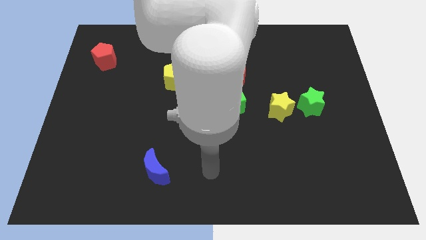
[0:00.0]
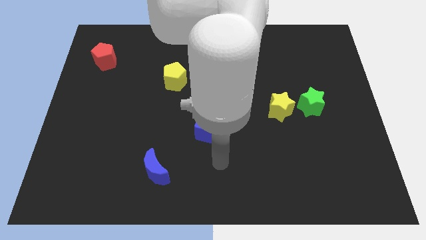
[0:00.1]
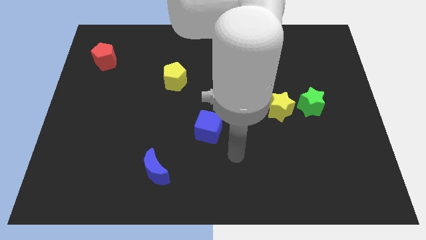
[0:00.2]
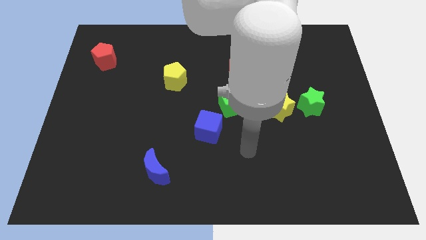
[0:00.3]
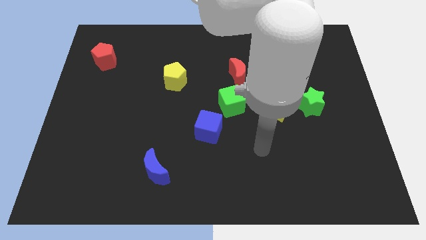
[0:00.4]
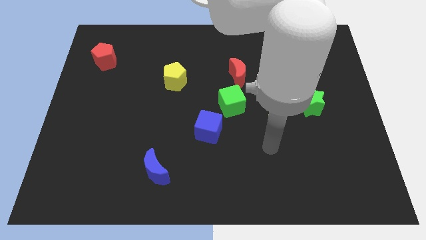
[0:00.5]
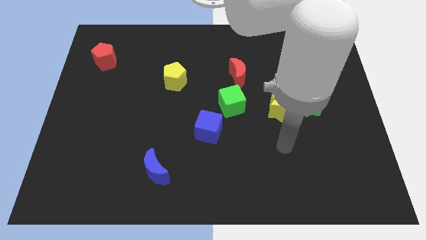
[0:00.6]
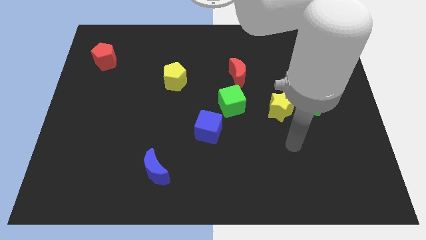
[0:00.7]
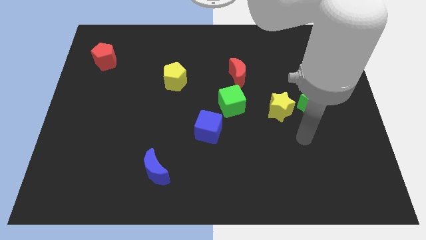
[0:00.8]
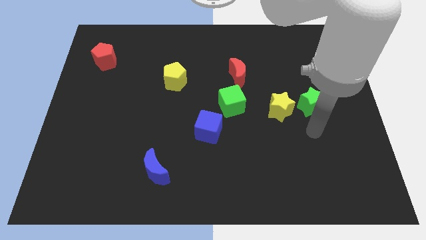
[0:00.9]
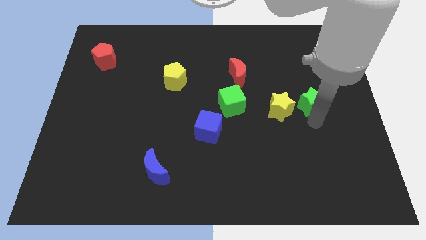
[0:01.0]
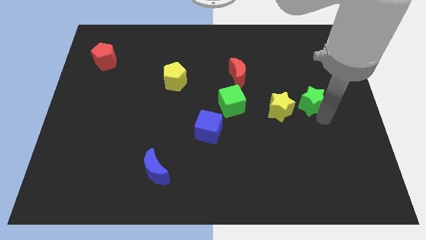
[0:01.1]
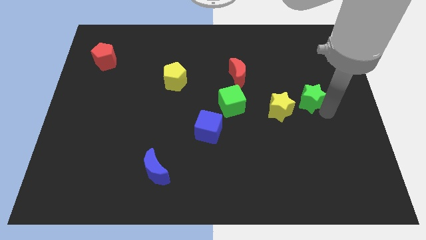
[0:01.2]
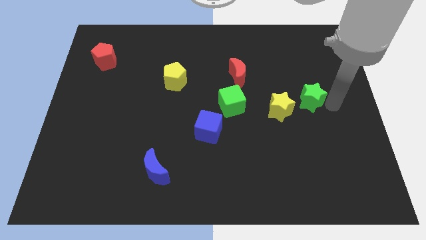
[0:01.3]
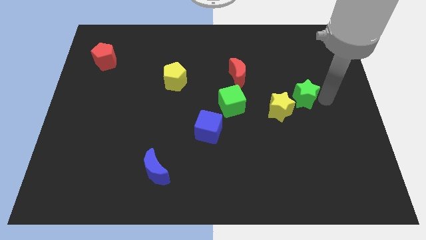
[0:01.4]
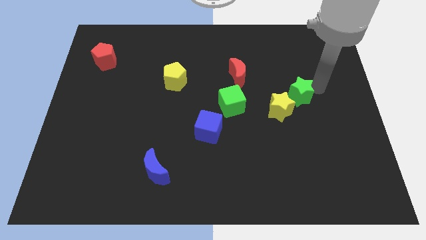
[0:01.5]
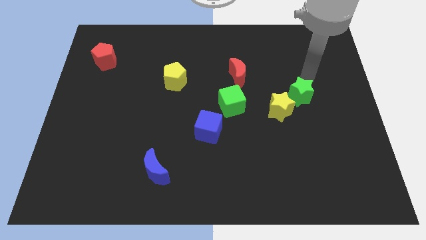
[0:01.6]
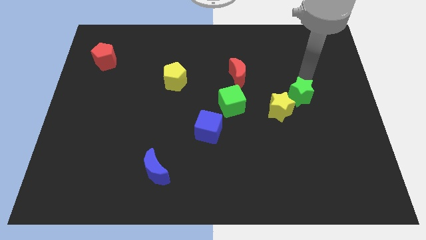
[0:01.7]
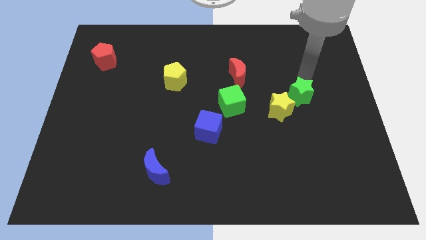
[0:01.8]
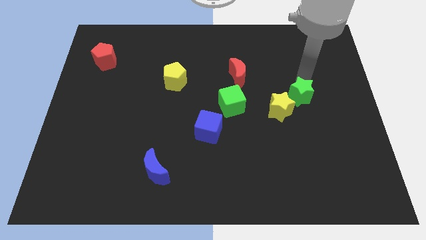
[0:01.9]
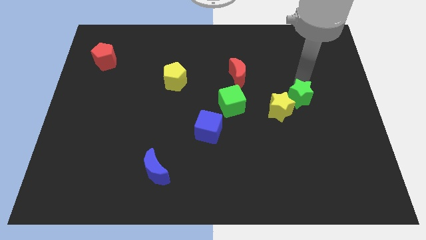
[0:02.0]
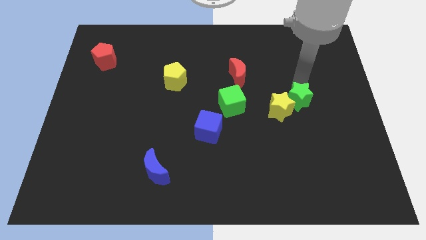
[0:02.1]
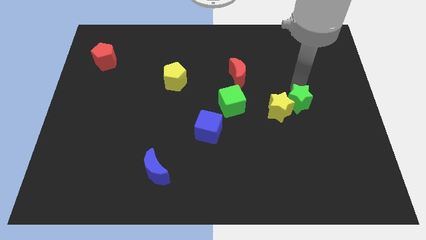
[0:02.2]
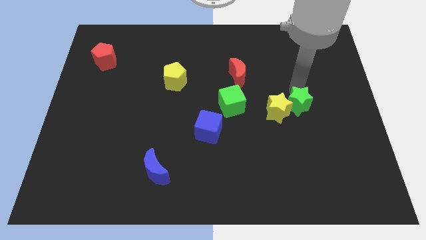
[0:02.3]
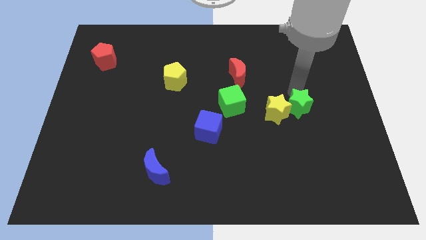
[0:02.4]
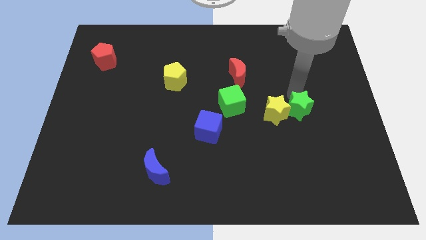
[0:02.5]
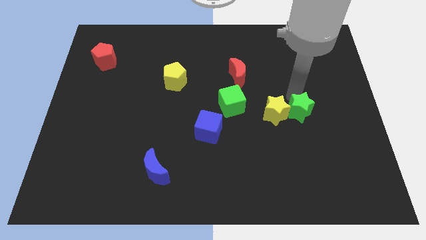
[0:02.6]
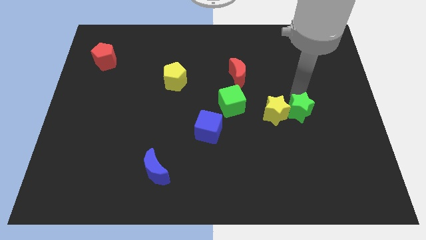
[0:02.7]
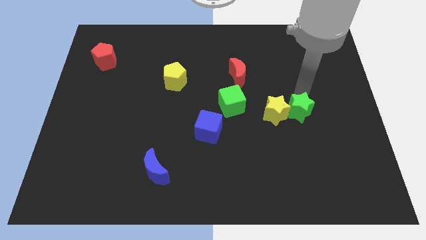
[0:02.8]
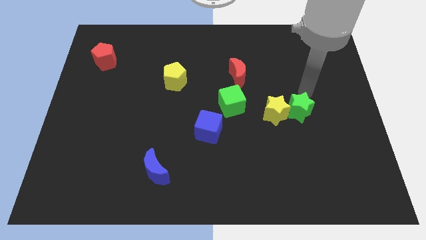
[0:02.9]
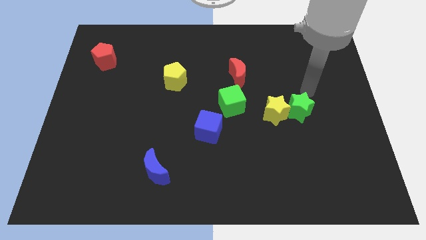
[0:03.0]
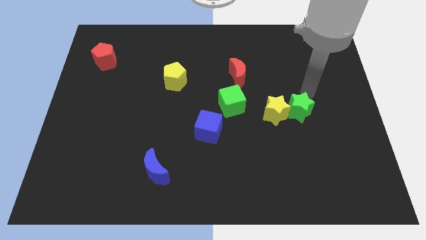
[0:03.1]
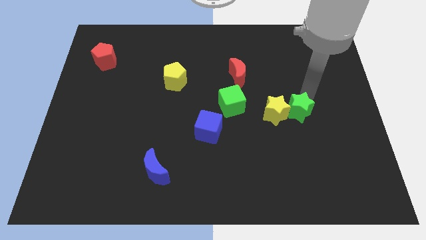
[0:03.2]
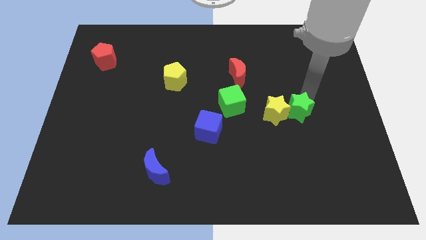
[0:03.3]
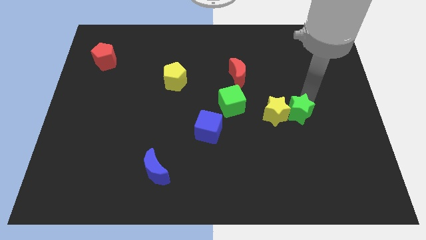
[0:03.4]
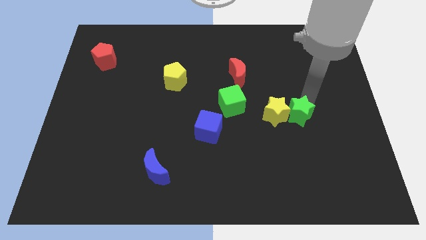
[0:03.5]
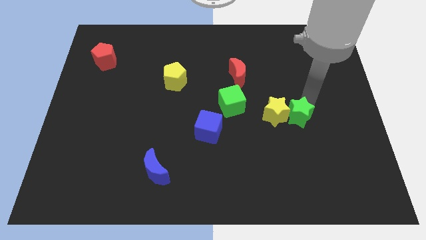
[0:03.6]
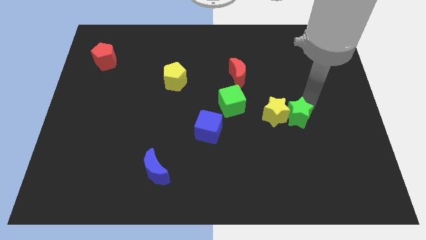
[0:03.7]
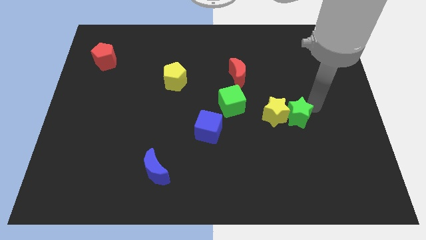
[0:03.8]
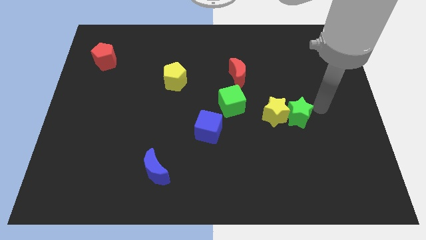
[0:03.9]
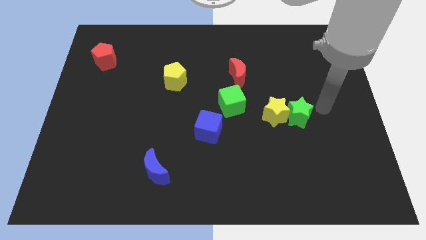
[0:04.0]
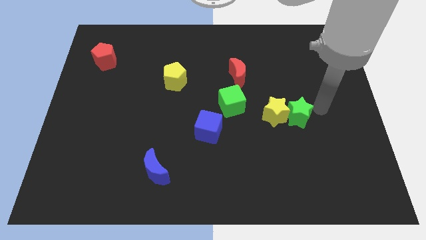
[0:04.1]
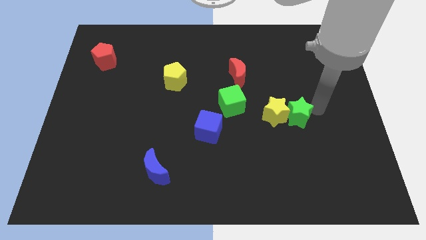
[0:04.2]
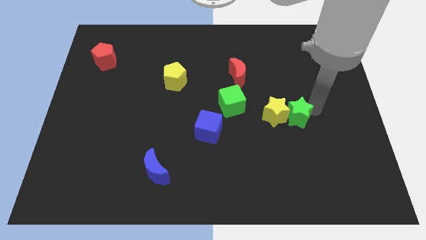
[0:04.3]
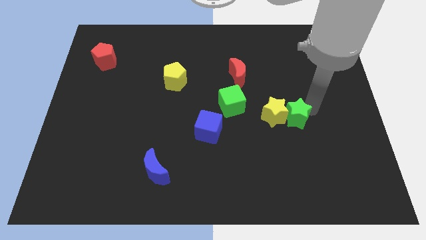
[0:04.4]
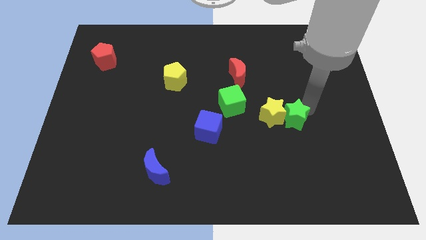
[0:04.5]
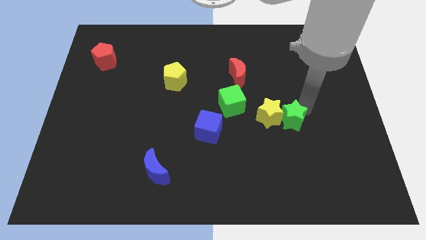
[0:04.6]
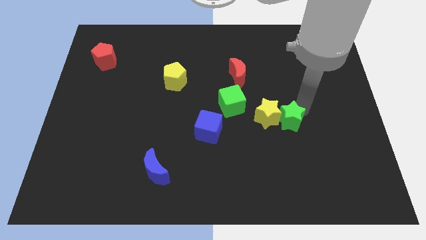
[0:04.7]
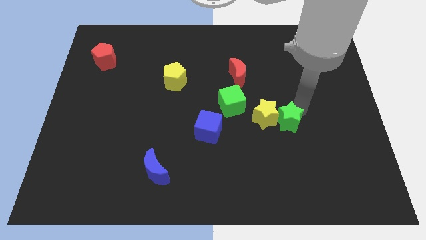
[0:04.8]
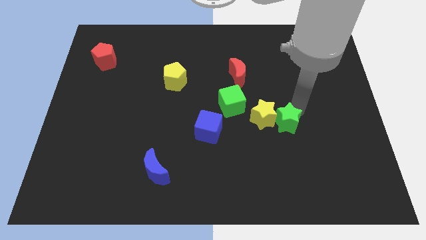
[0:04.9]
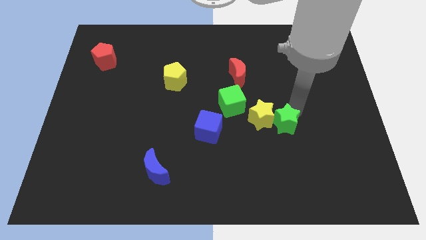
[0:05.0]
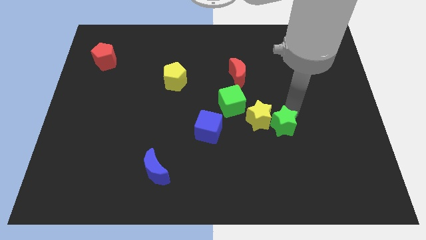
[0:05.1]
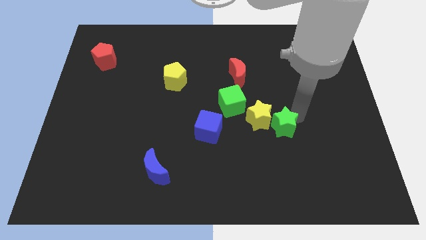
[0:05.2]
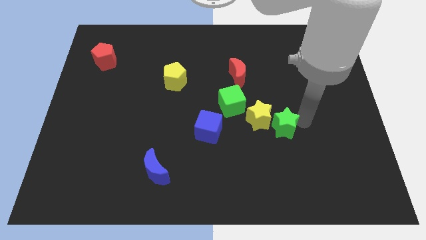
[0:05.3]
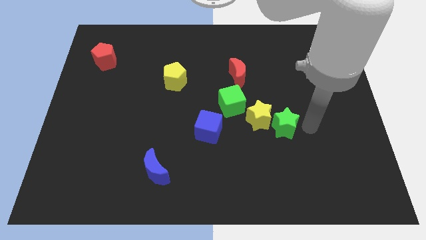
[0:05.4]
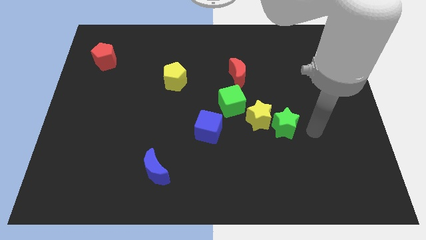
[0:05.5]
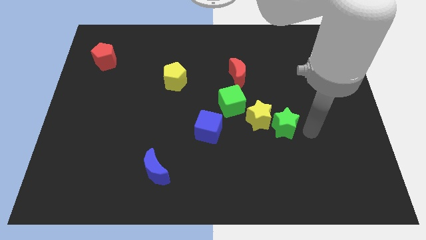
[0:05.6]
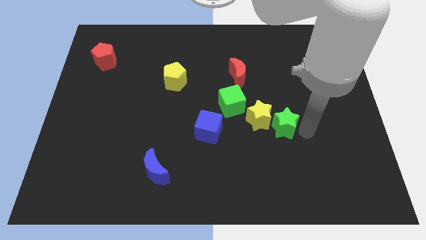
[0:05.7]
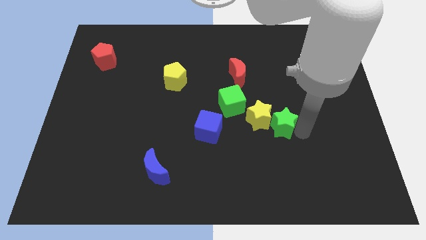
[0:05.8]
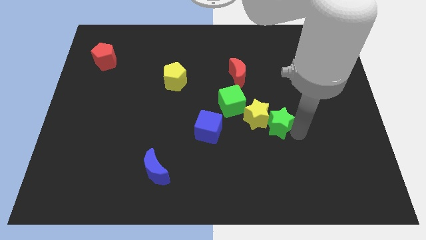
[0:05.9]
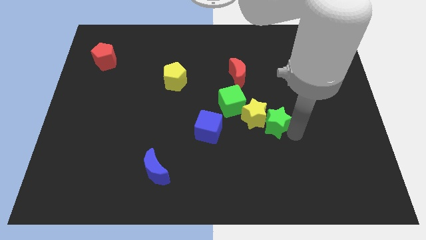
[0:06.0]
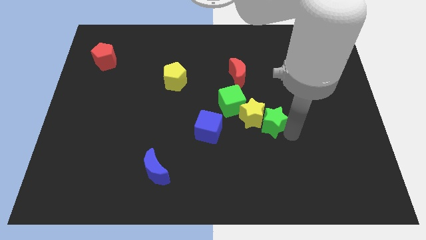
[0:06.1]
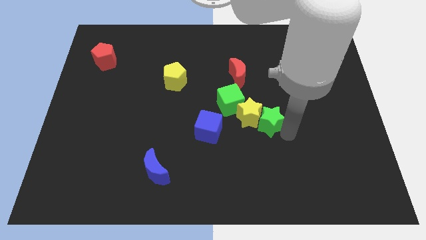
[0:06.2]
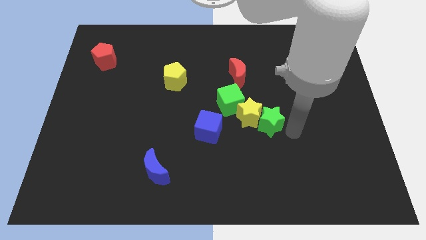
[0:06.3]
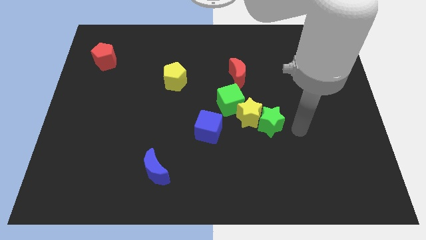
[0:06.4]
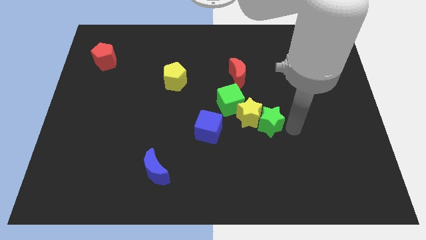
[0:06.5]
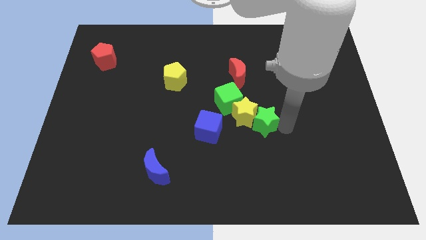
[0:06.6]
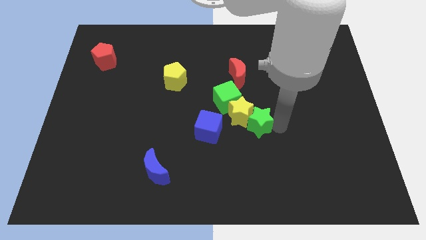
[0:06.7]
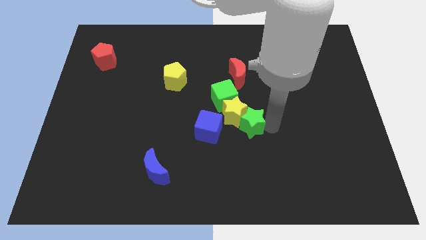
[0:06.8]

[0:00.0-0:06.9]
move the green star to the center
